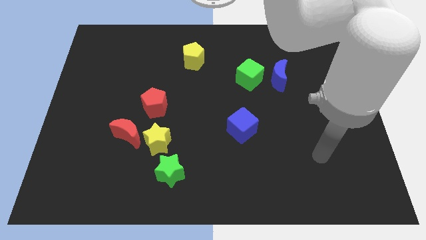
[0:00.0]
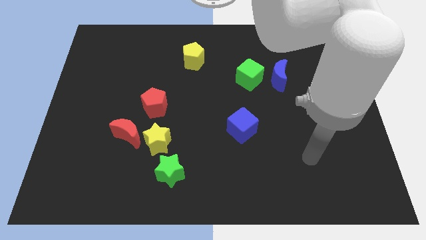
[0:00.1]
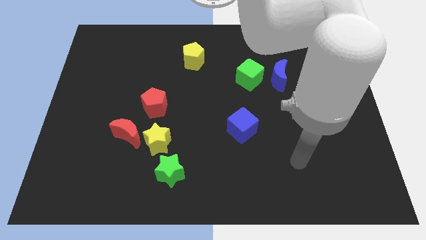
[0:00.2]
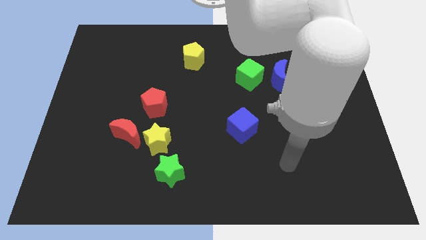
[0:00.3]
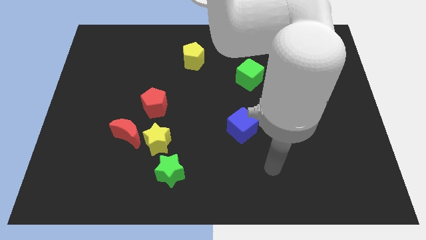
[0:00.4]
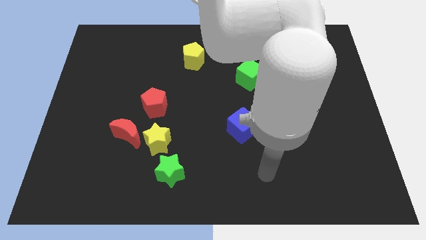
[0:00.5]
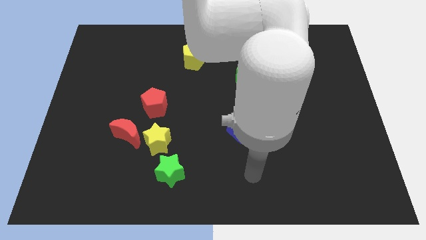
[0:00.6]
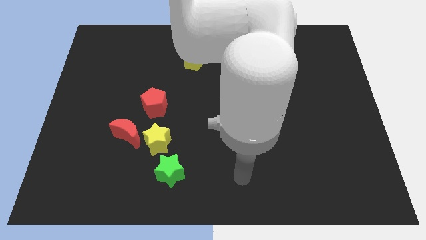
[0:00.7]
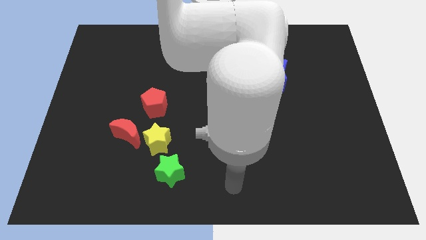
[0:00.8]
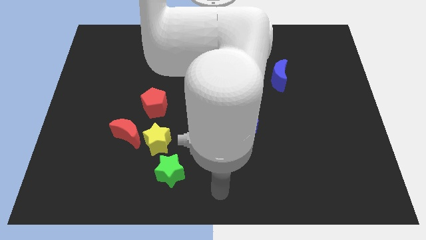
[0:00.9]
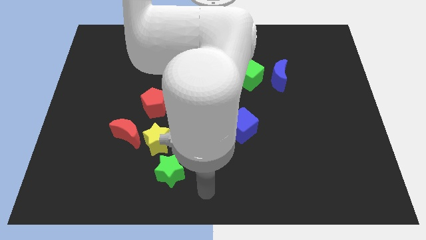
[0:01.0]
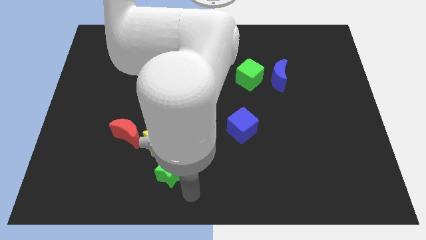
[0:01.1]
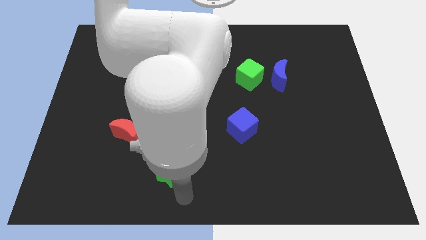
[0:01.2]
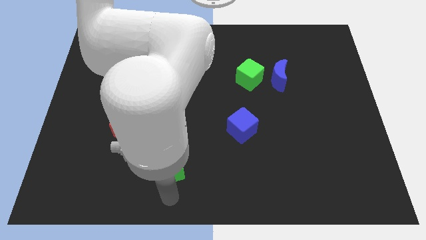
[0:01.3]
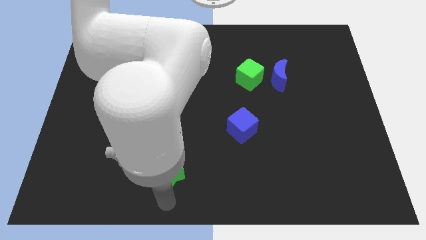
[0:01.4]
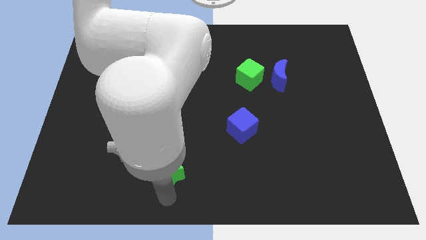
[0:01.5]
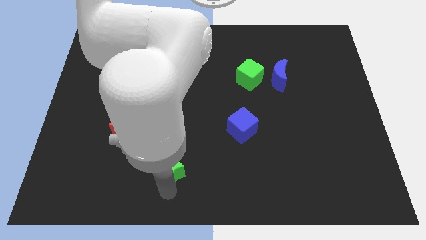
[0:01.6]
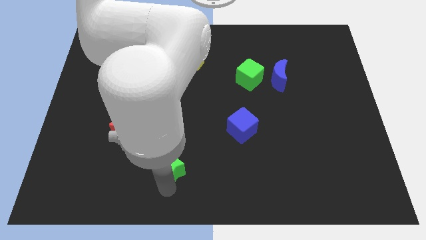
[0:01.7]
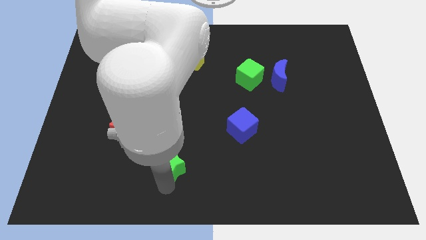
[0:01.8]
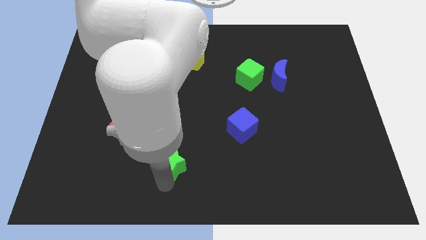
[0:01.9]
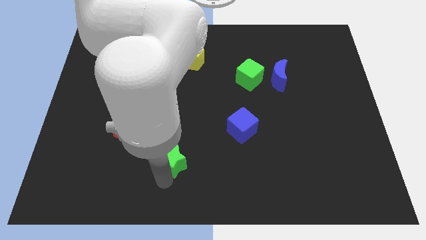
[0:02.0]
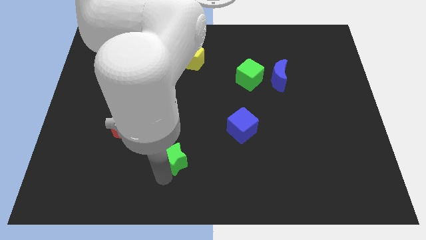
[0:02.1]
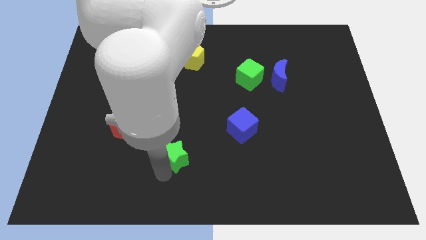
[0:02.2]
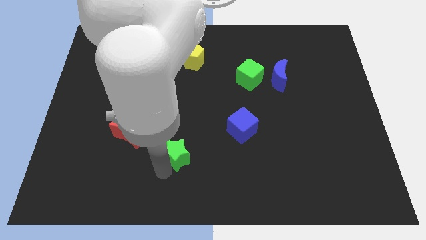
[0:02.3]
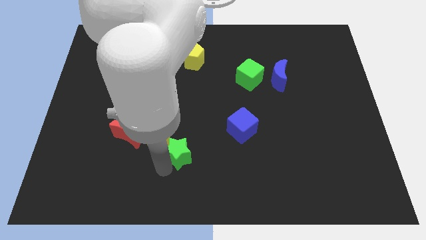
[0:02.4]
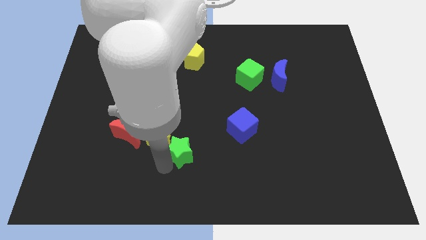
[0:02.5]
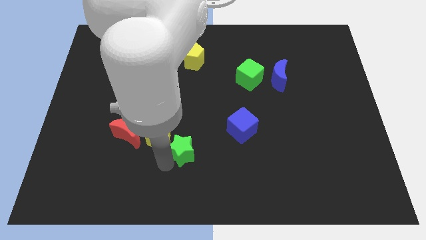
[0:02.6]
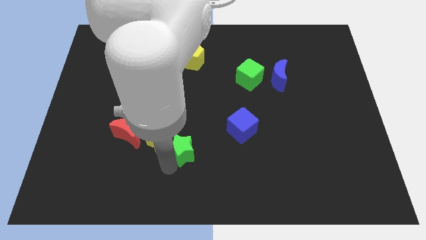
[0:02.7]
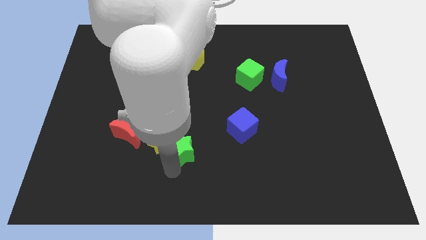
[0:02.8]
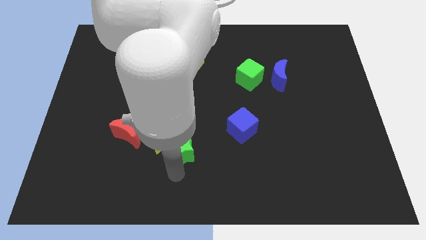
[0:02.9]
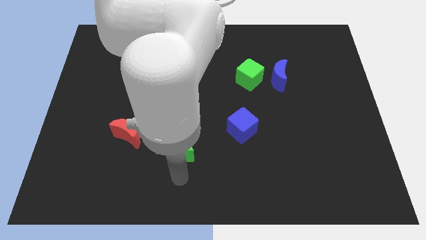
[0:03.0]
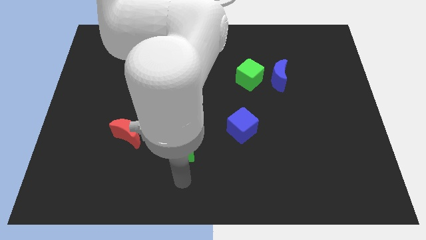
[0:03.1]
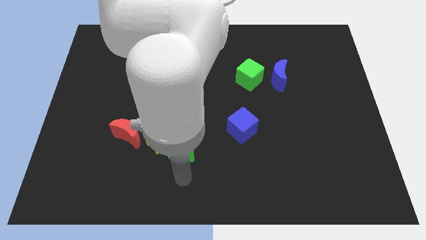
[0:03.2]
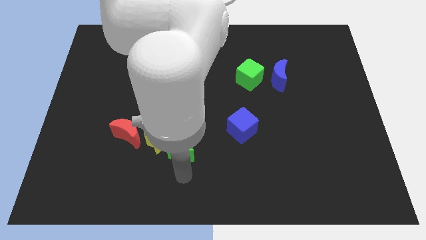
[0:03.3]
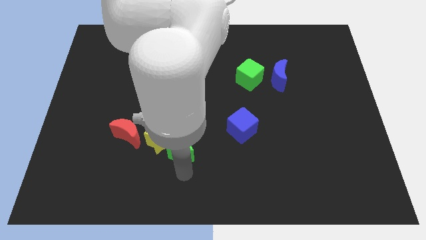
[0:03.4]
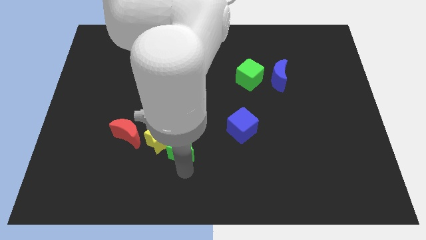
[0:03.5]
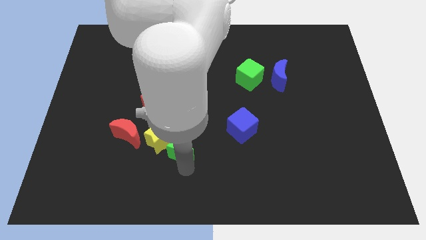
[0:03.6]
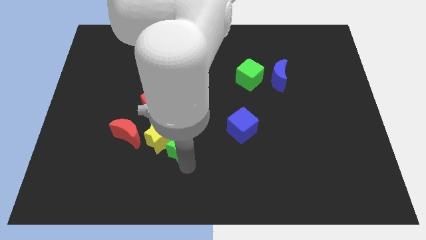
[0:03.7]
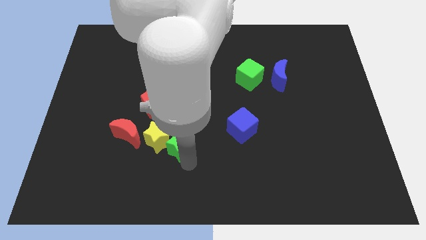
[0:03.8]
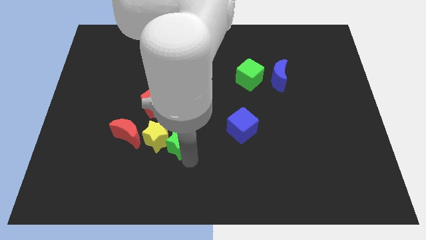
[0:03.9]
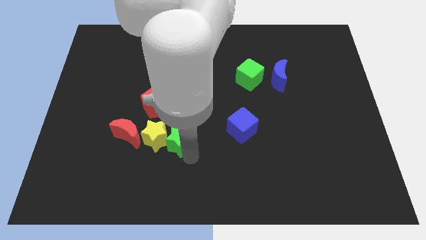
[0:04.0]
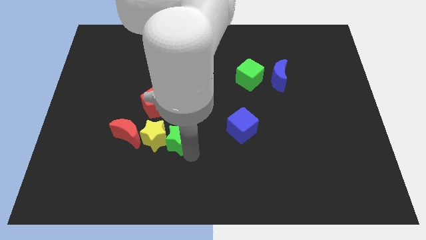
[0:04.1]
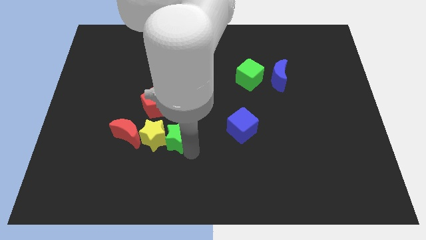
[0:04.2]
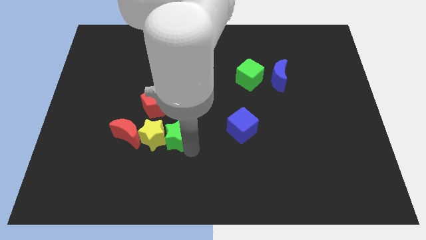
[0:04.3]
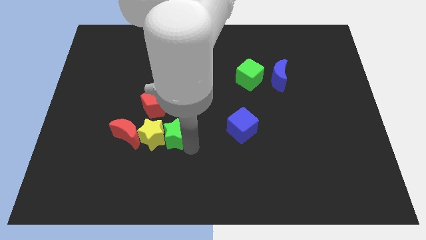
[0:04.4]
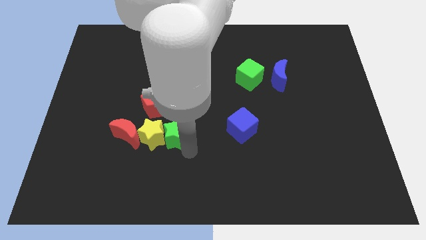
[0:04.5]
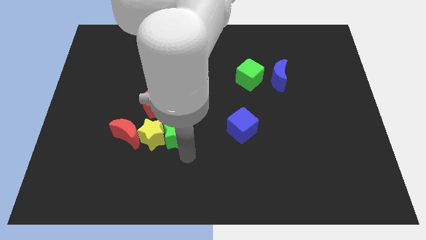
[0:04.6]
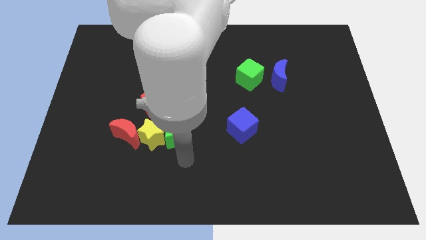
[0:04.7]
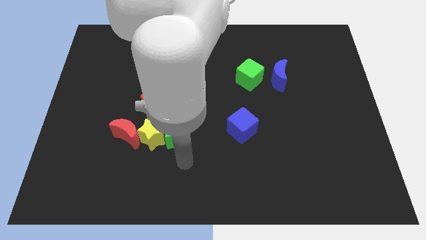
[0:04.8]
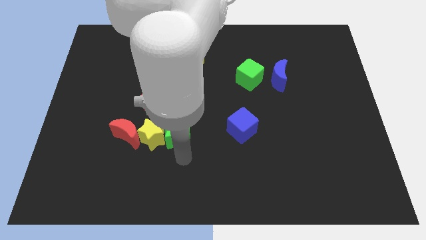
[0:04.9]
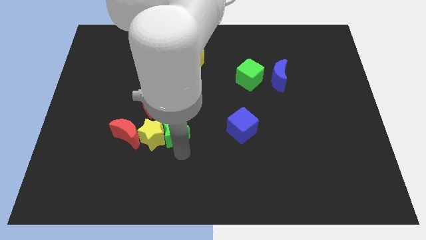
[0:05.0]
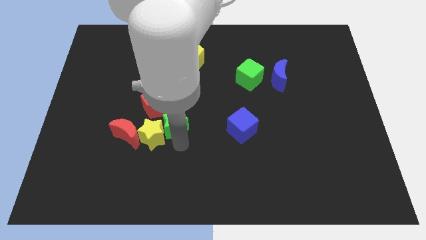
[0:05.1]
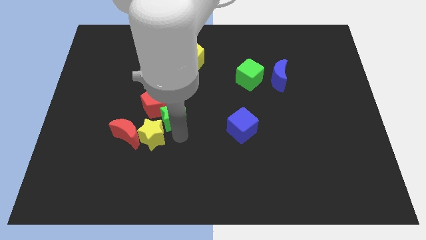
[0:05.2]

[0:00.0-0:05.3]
move the green star towards the red pentagon

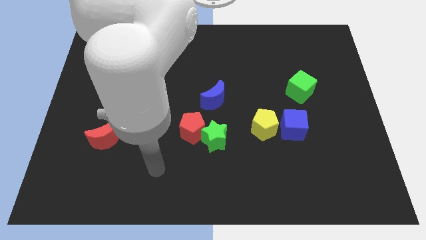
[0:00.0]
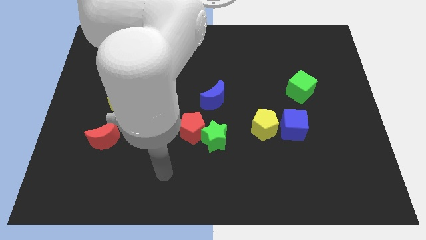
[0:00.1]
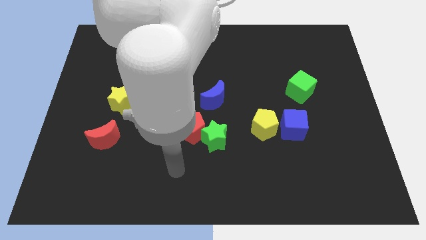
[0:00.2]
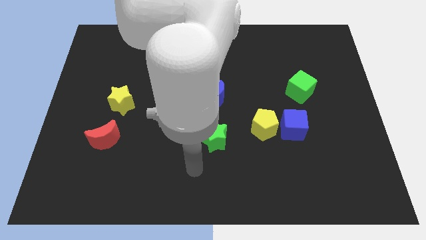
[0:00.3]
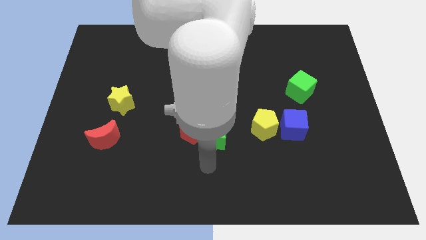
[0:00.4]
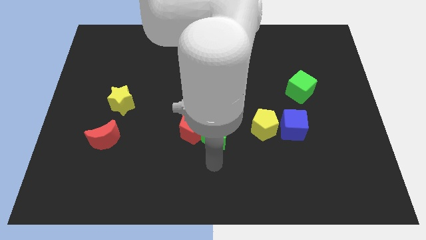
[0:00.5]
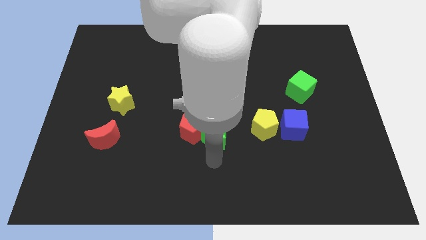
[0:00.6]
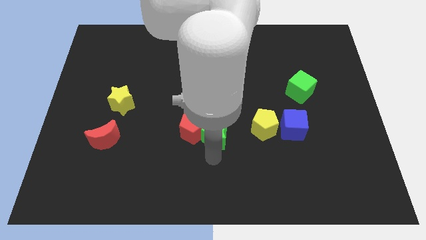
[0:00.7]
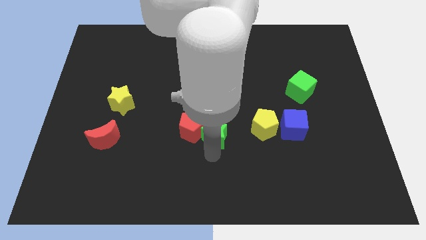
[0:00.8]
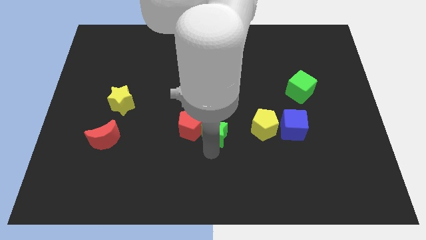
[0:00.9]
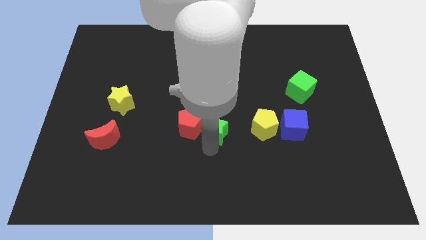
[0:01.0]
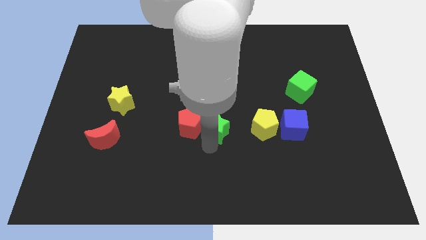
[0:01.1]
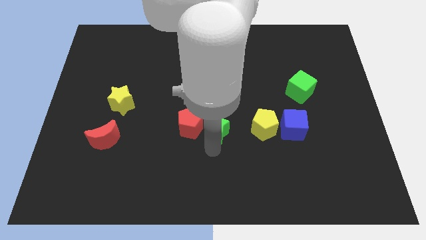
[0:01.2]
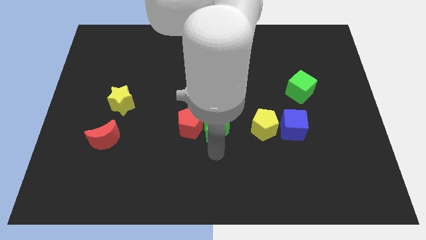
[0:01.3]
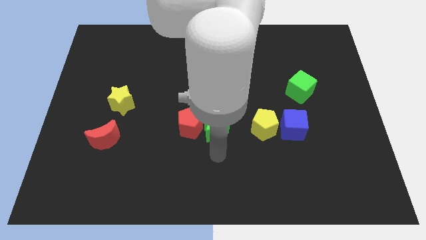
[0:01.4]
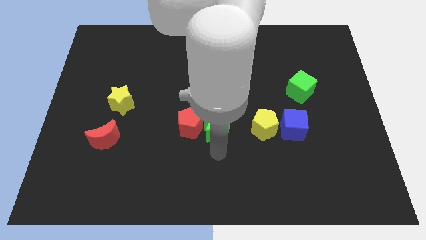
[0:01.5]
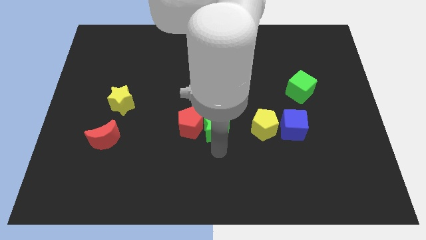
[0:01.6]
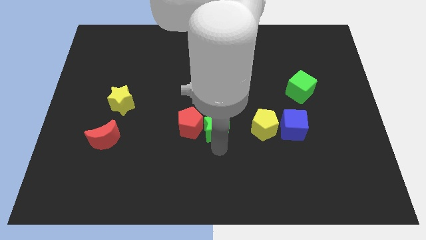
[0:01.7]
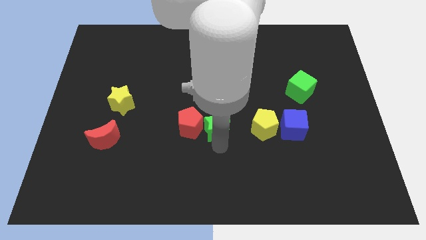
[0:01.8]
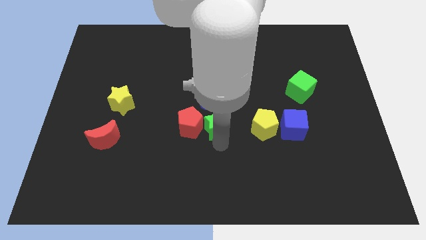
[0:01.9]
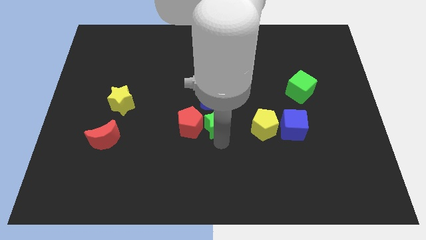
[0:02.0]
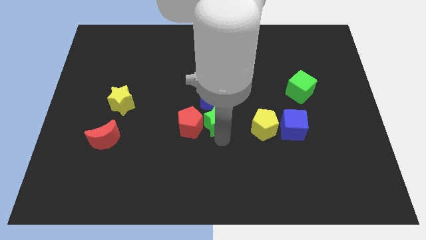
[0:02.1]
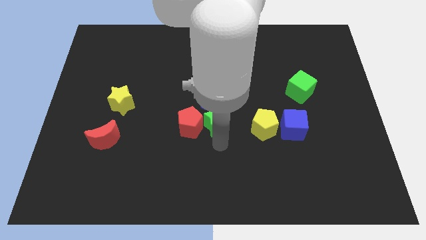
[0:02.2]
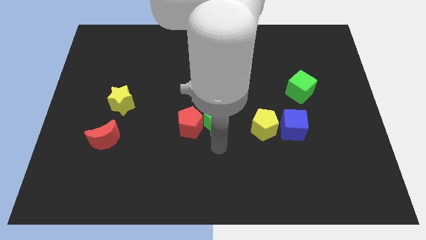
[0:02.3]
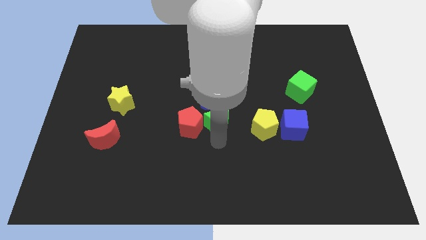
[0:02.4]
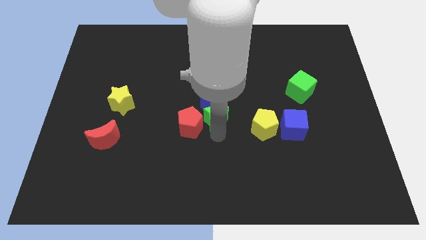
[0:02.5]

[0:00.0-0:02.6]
move the green star next to the blue moon
